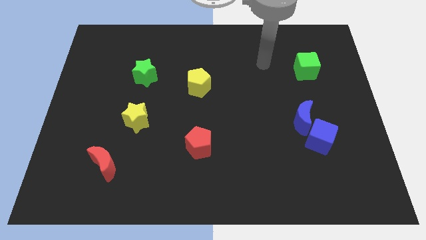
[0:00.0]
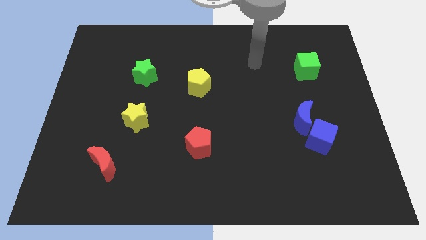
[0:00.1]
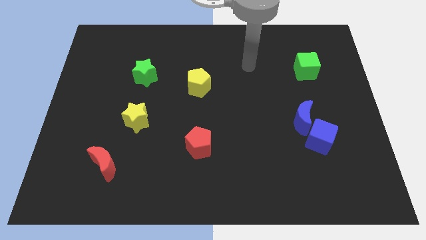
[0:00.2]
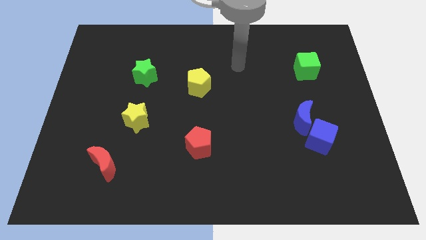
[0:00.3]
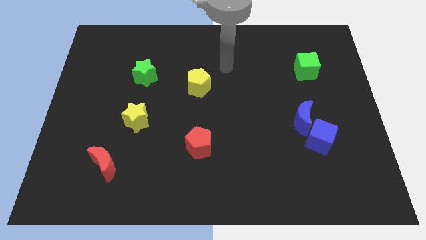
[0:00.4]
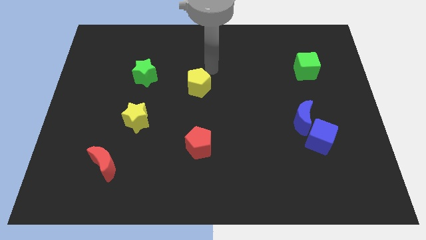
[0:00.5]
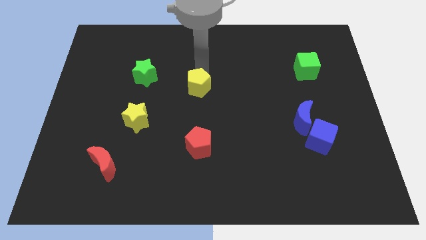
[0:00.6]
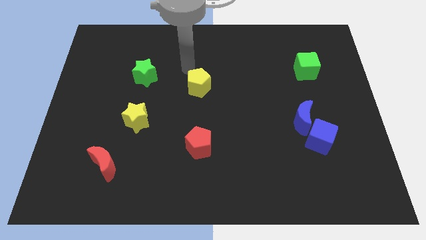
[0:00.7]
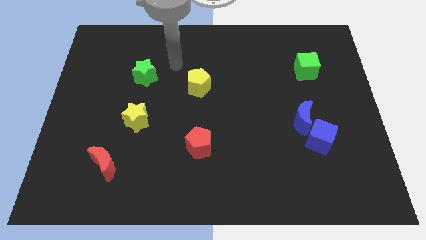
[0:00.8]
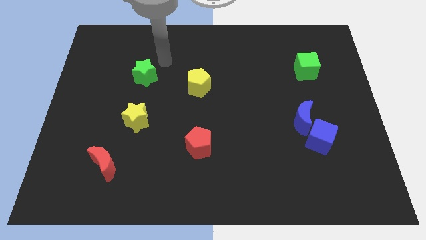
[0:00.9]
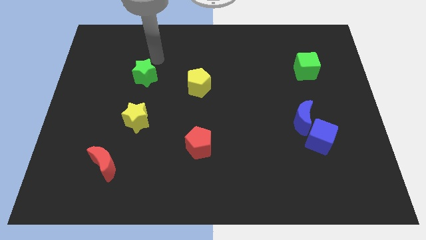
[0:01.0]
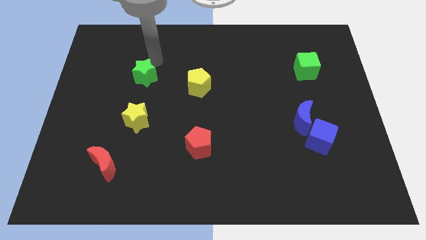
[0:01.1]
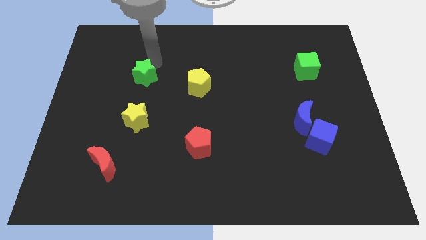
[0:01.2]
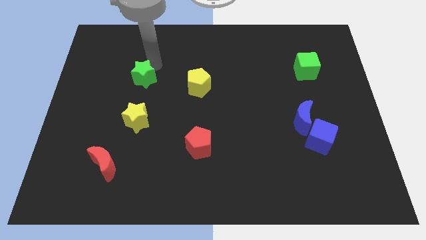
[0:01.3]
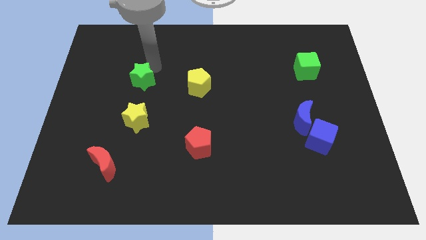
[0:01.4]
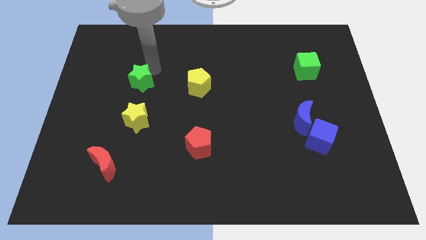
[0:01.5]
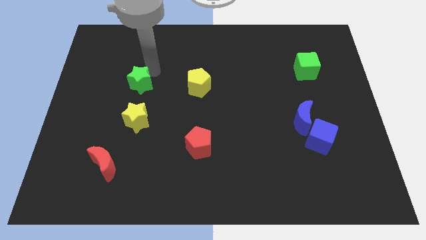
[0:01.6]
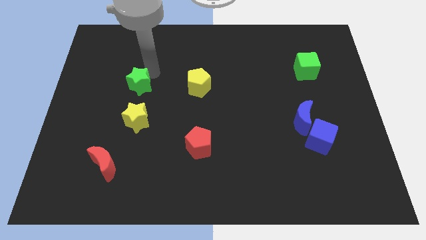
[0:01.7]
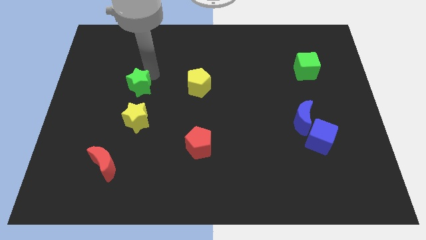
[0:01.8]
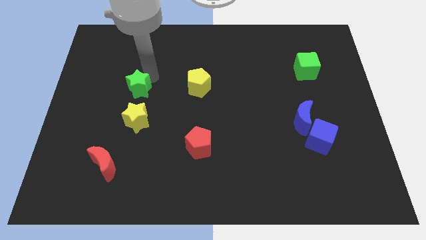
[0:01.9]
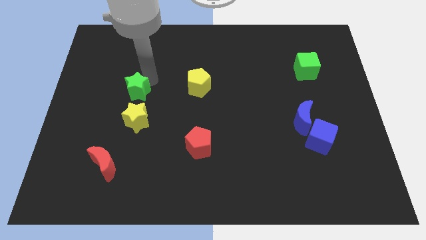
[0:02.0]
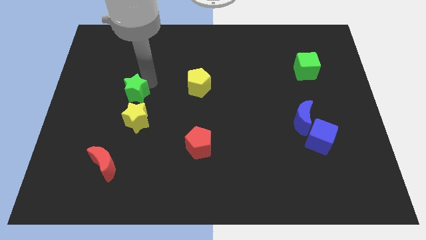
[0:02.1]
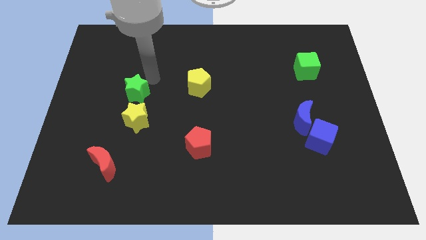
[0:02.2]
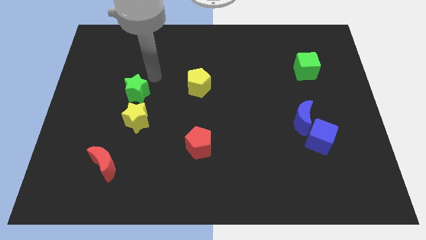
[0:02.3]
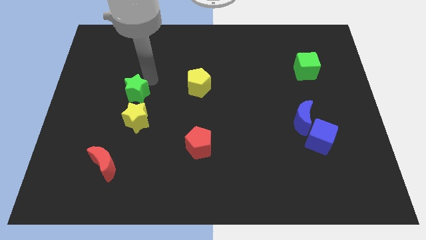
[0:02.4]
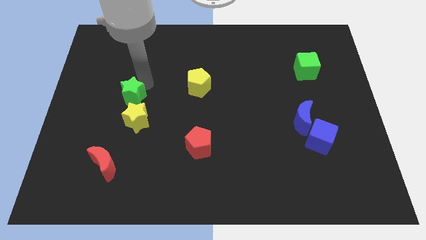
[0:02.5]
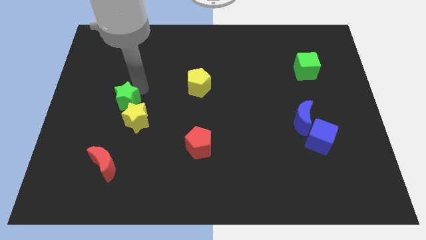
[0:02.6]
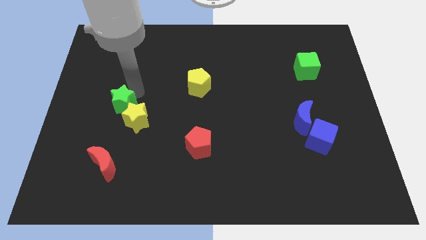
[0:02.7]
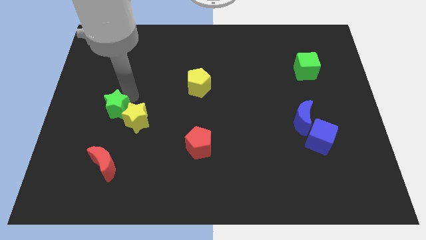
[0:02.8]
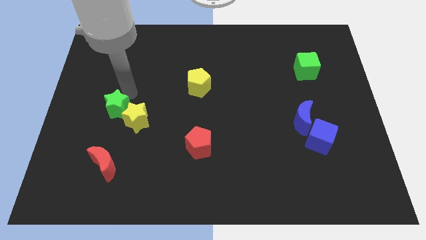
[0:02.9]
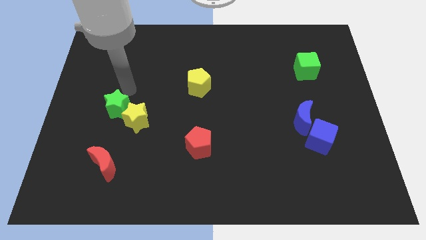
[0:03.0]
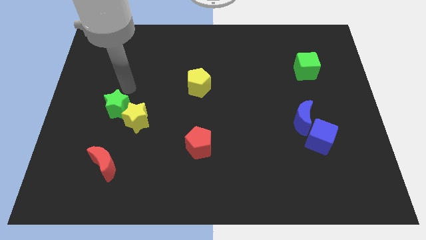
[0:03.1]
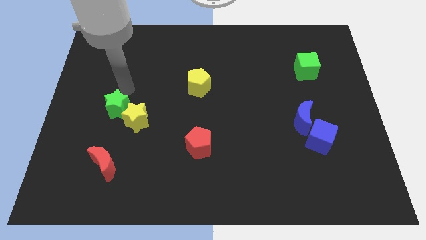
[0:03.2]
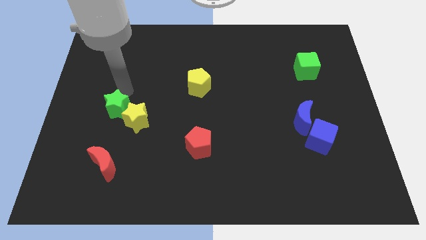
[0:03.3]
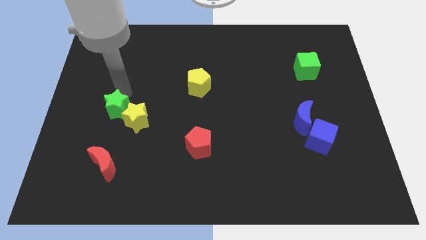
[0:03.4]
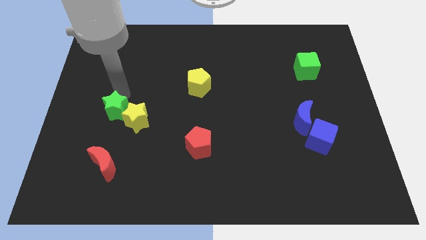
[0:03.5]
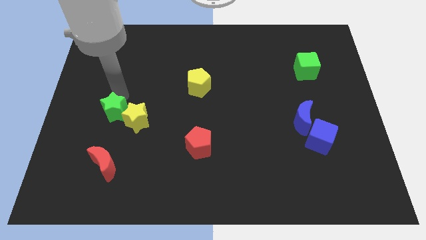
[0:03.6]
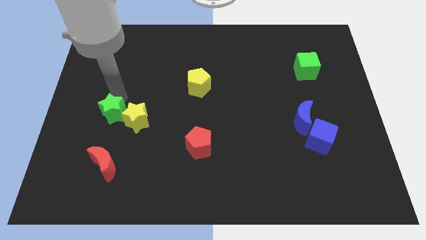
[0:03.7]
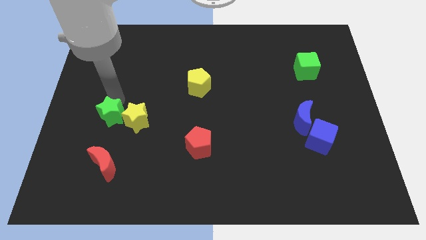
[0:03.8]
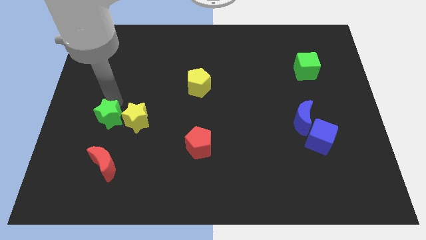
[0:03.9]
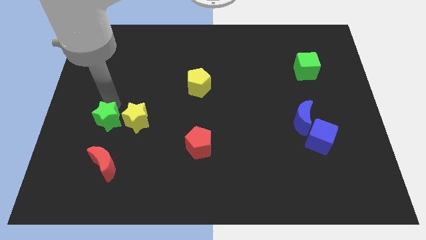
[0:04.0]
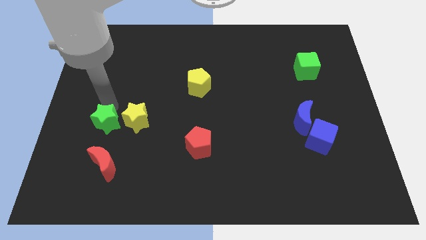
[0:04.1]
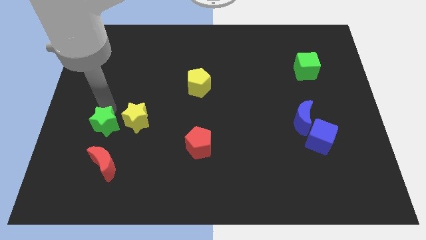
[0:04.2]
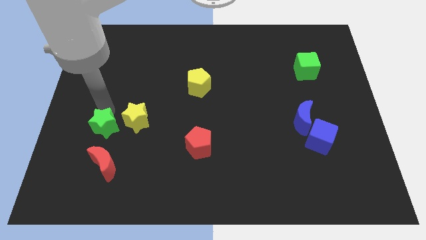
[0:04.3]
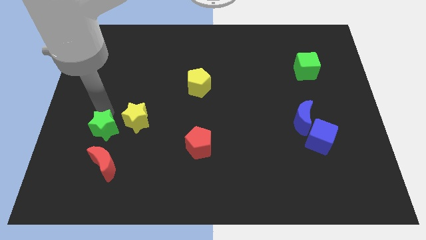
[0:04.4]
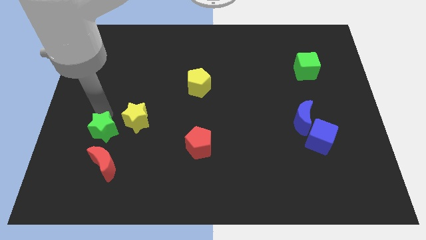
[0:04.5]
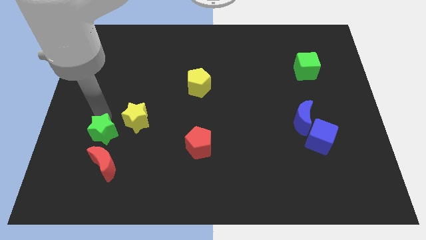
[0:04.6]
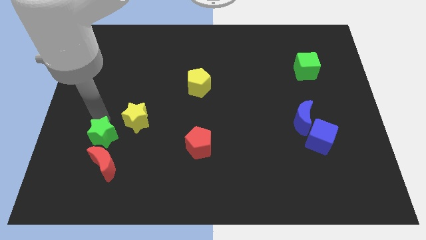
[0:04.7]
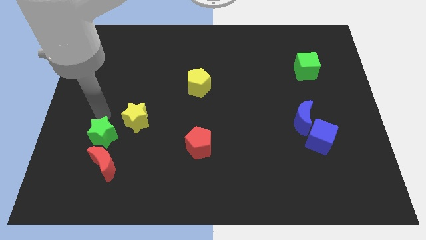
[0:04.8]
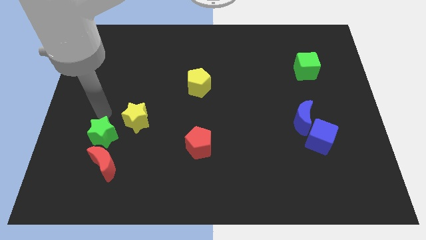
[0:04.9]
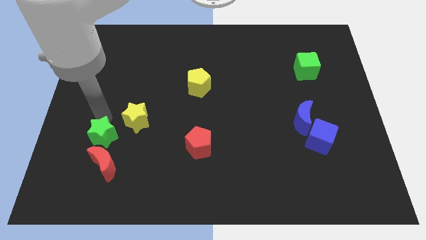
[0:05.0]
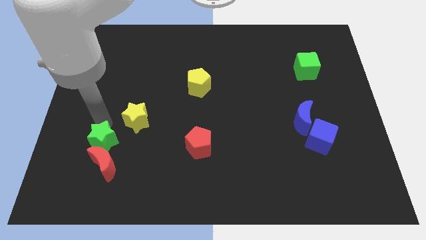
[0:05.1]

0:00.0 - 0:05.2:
push the green star to the red moon

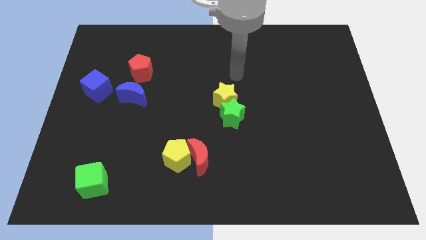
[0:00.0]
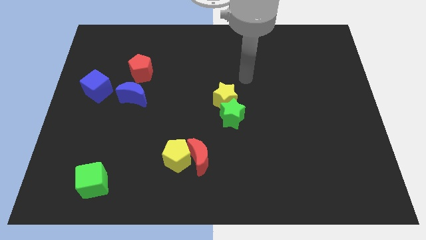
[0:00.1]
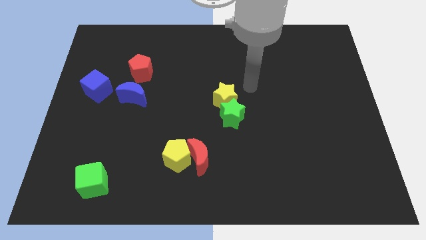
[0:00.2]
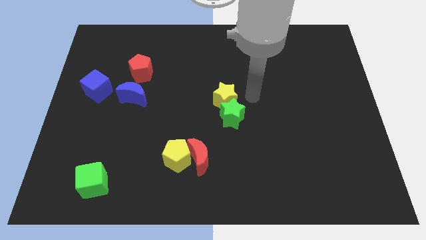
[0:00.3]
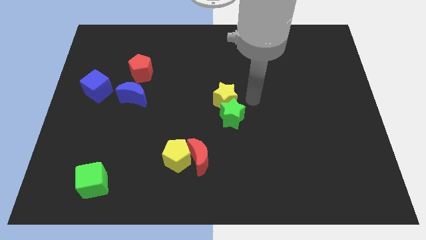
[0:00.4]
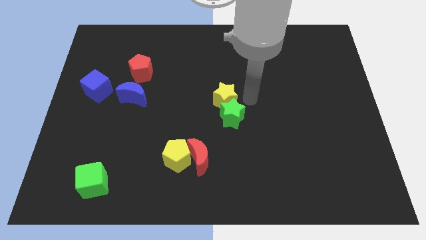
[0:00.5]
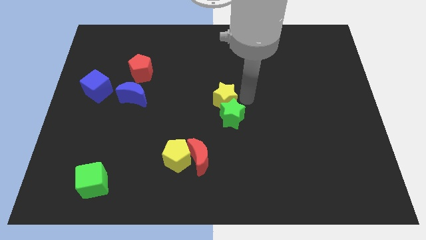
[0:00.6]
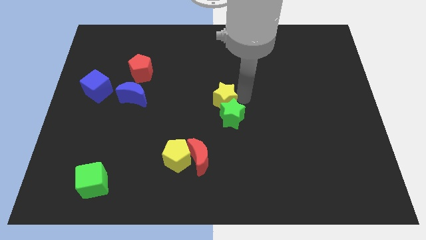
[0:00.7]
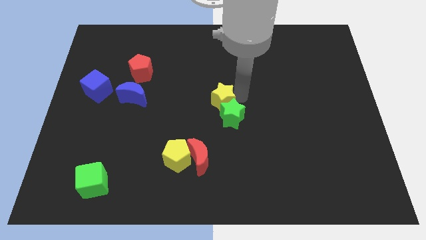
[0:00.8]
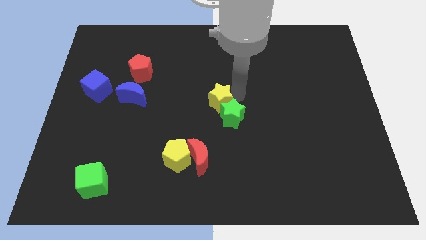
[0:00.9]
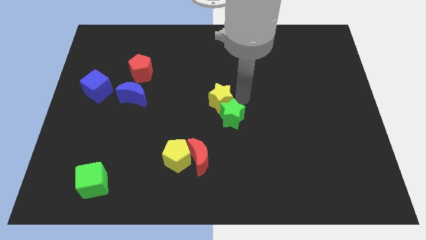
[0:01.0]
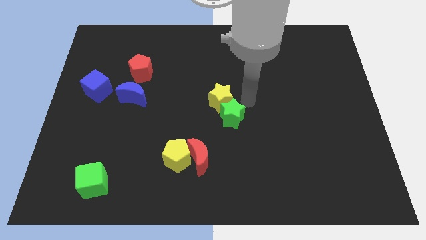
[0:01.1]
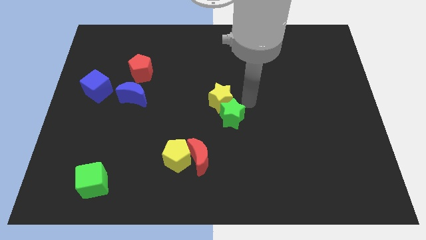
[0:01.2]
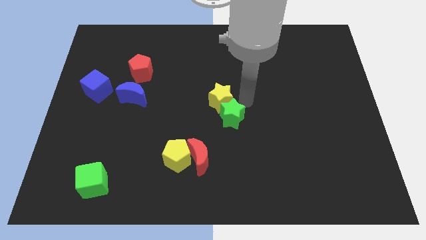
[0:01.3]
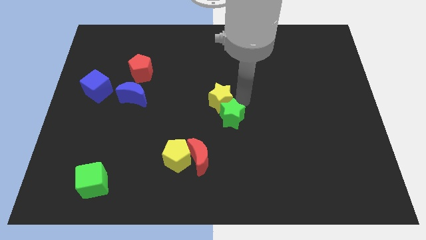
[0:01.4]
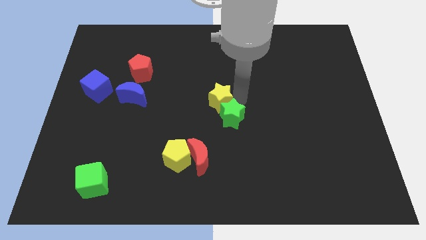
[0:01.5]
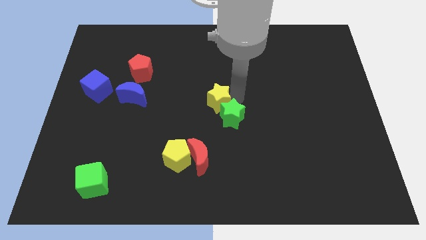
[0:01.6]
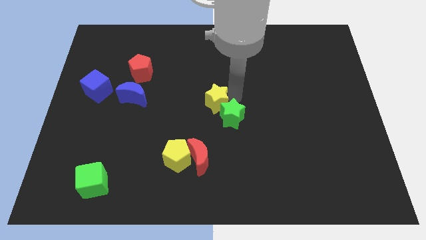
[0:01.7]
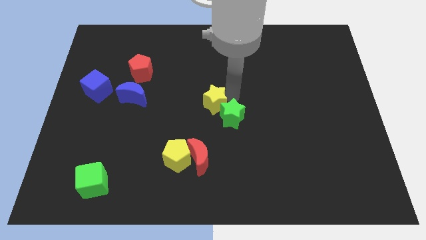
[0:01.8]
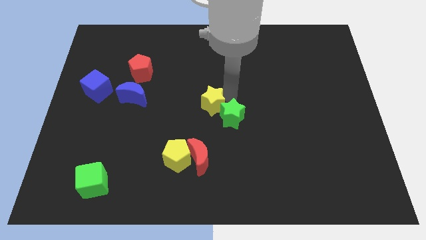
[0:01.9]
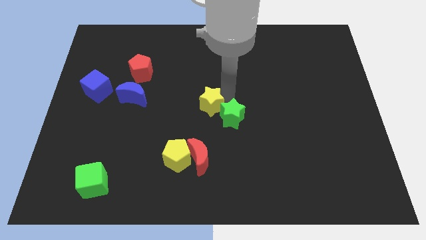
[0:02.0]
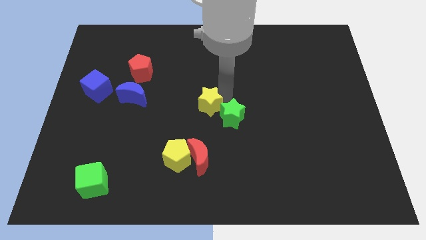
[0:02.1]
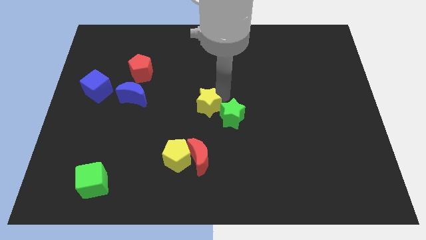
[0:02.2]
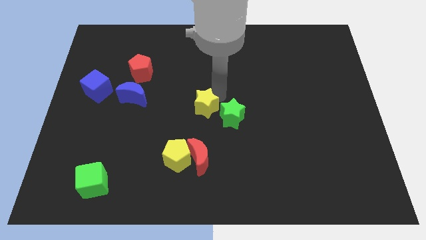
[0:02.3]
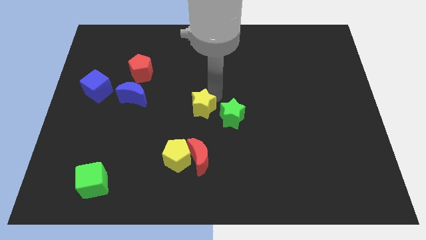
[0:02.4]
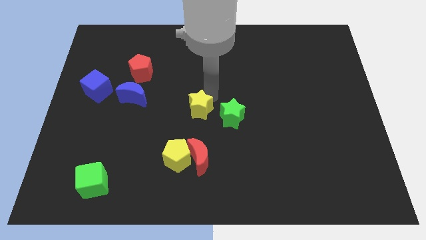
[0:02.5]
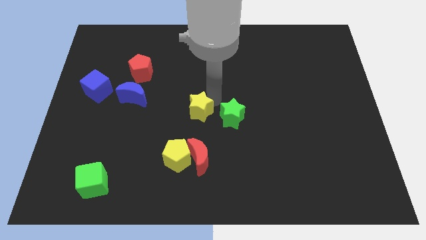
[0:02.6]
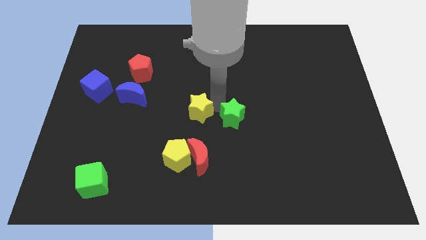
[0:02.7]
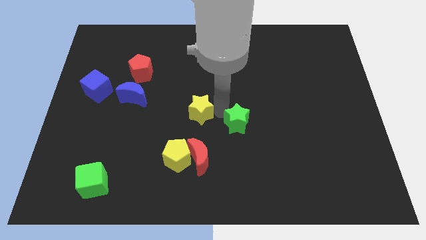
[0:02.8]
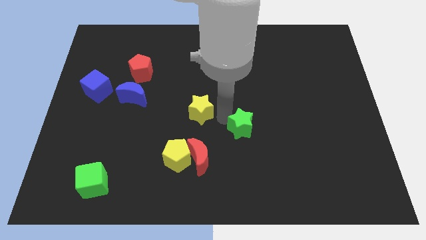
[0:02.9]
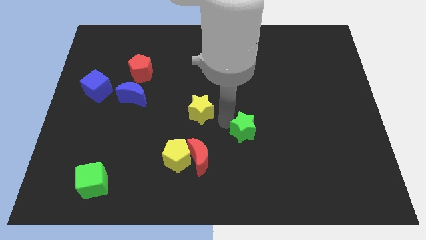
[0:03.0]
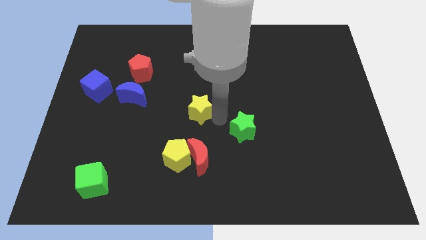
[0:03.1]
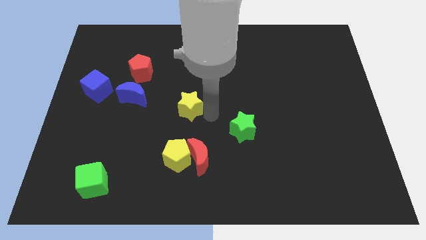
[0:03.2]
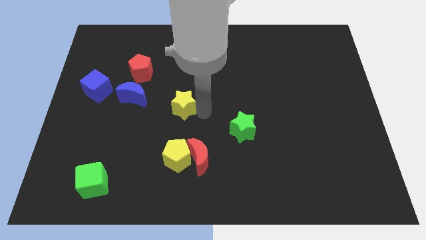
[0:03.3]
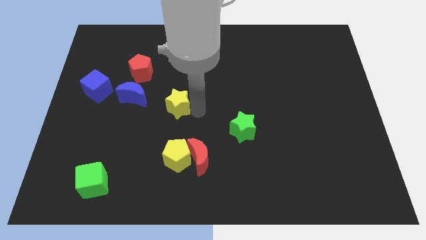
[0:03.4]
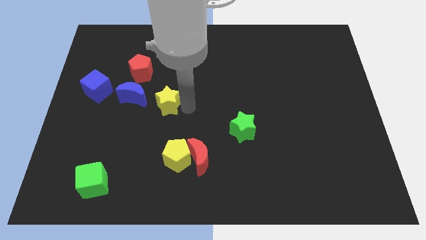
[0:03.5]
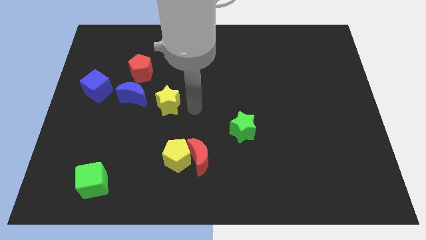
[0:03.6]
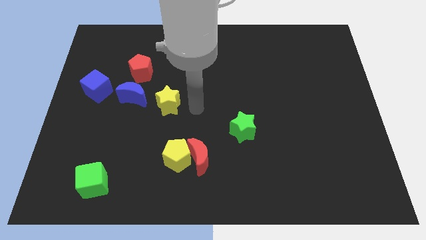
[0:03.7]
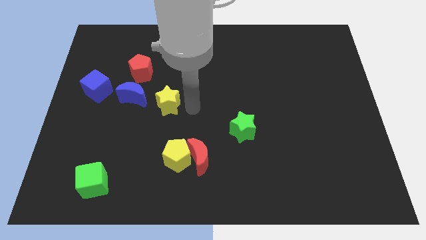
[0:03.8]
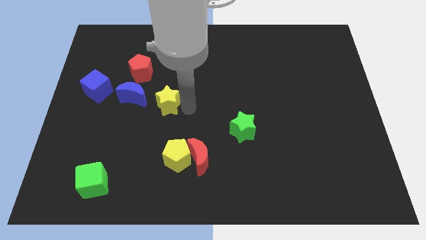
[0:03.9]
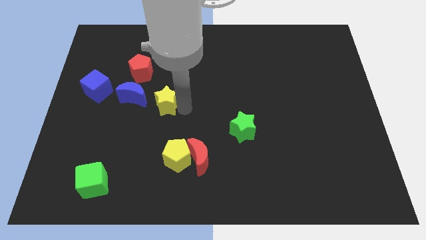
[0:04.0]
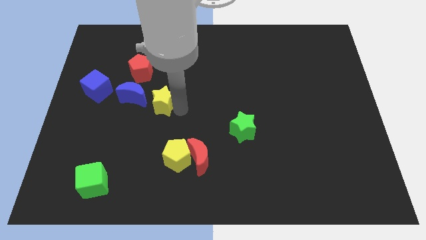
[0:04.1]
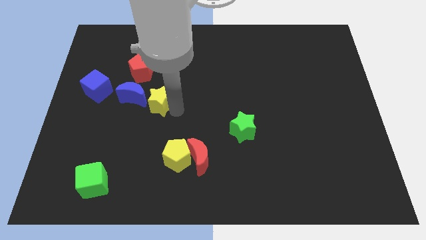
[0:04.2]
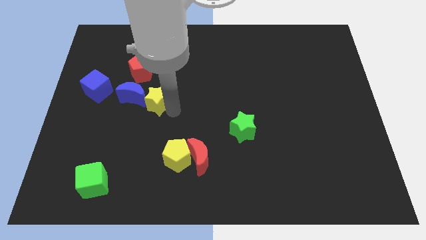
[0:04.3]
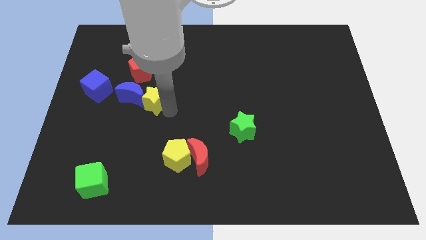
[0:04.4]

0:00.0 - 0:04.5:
push the yellow star close to the blue moon
